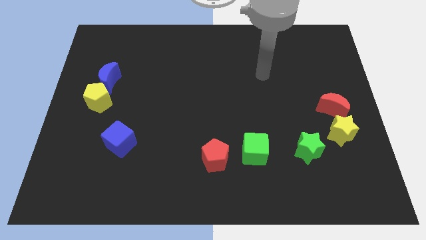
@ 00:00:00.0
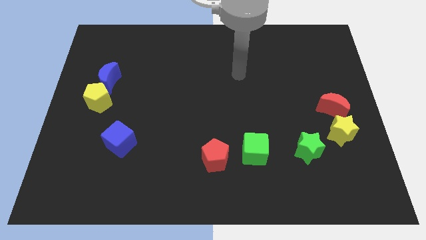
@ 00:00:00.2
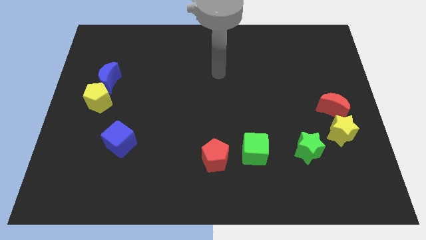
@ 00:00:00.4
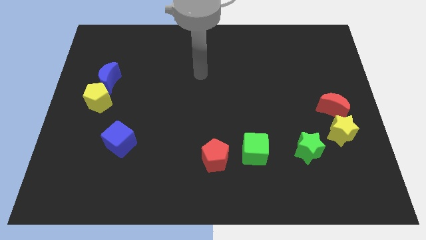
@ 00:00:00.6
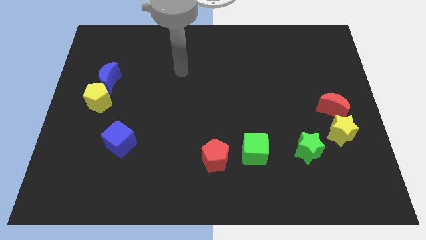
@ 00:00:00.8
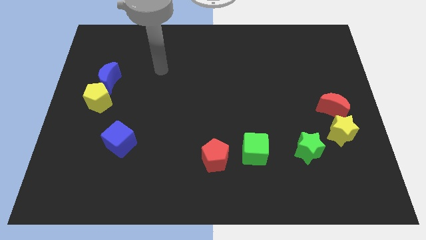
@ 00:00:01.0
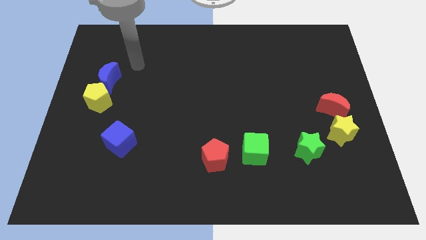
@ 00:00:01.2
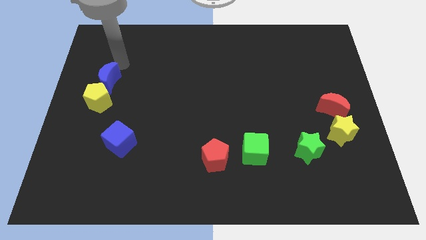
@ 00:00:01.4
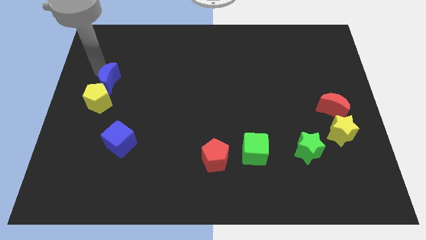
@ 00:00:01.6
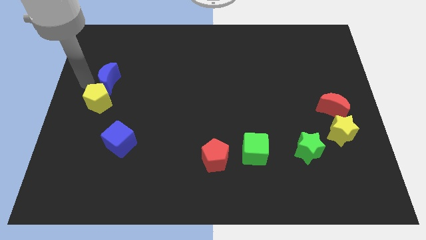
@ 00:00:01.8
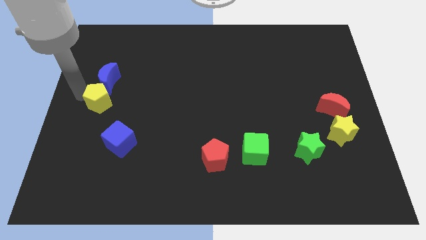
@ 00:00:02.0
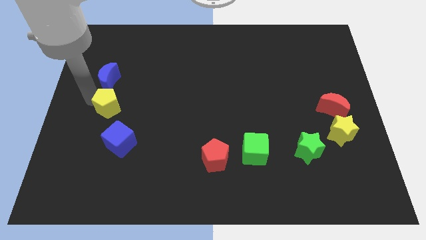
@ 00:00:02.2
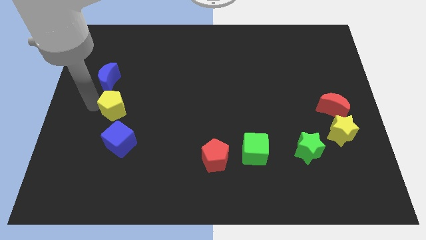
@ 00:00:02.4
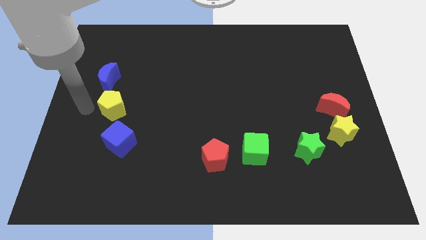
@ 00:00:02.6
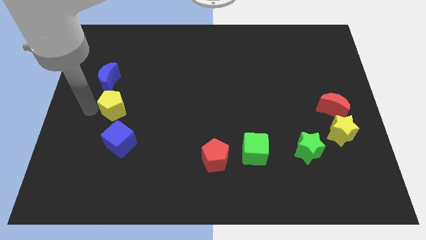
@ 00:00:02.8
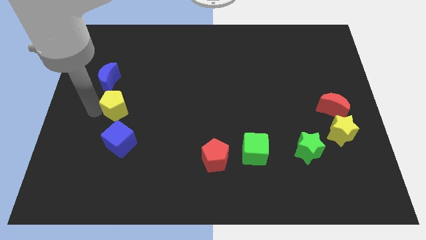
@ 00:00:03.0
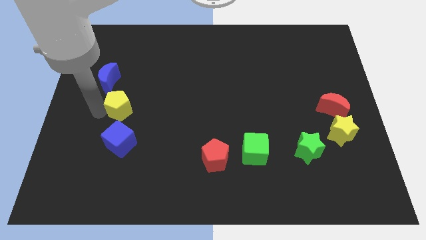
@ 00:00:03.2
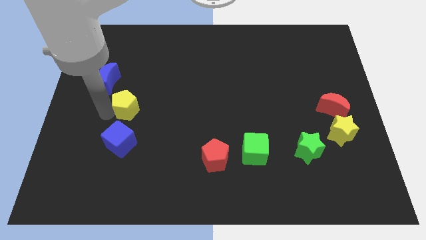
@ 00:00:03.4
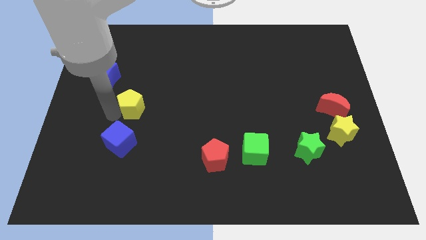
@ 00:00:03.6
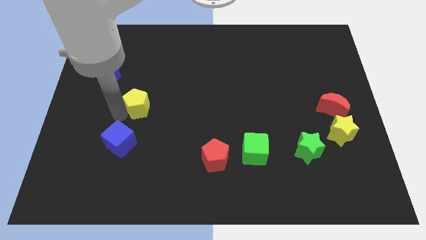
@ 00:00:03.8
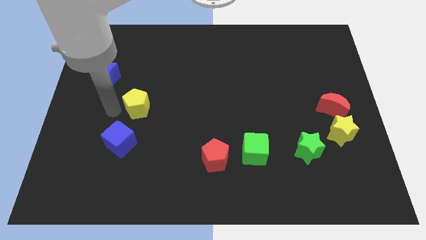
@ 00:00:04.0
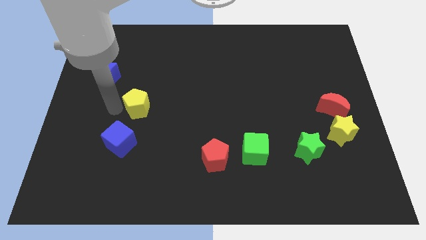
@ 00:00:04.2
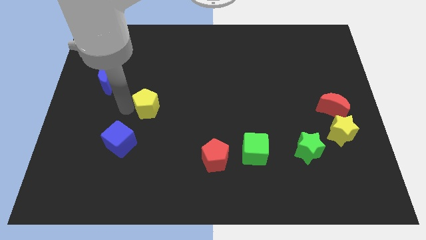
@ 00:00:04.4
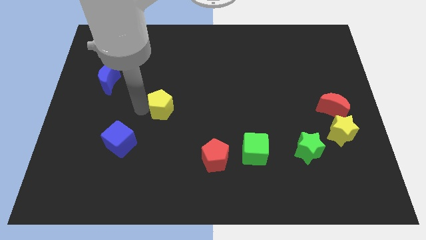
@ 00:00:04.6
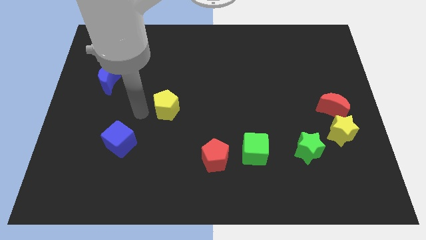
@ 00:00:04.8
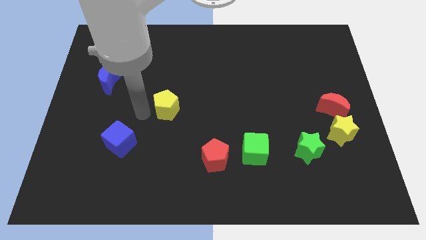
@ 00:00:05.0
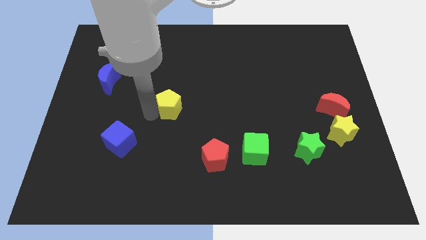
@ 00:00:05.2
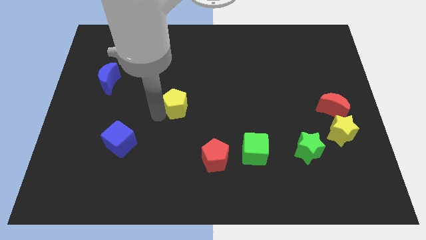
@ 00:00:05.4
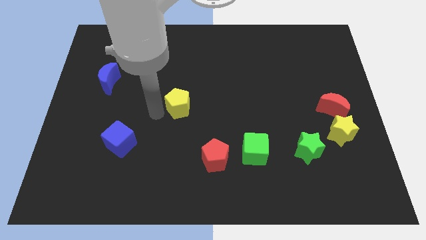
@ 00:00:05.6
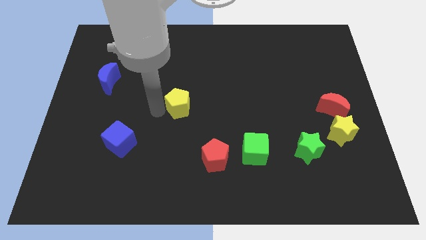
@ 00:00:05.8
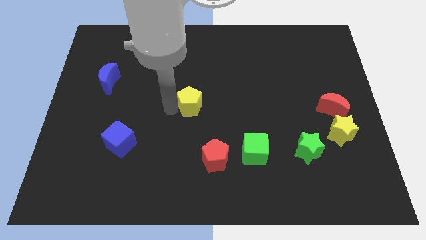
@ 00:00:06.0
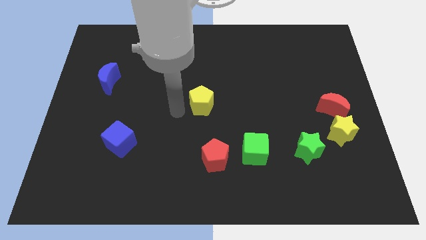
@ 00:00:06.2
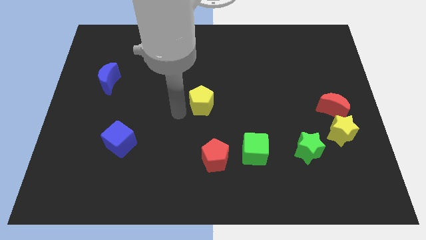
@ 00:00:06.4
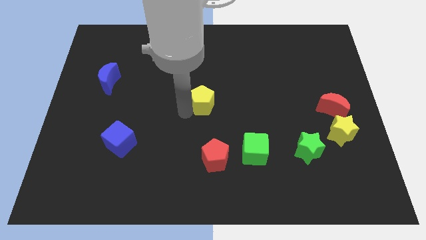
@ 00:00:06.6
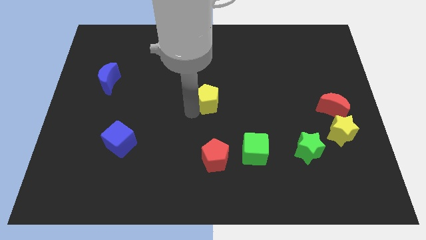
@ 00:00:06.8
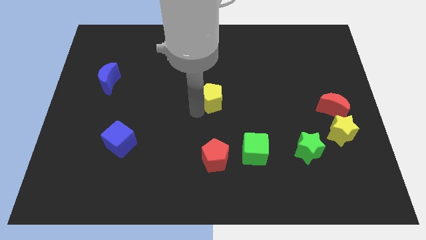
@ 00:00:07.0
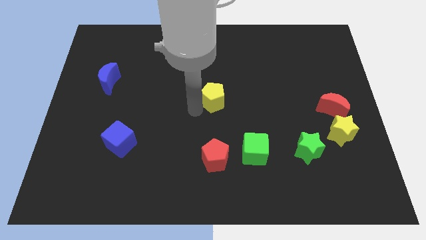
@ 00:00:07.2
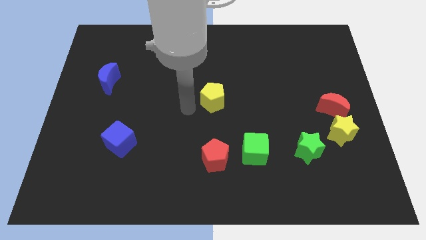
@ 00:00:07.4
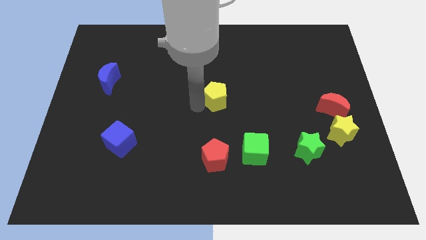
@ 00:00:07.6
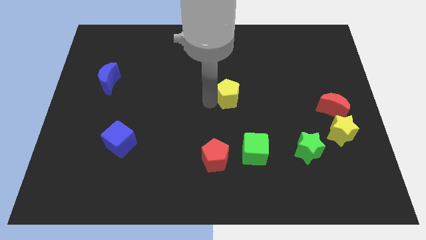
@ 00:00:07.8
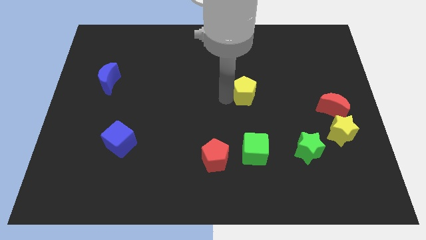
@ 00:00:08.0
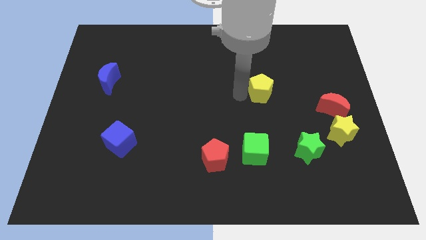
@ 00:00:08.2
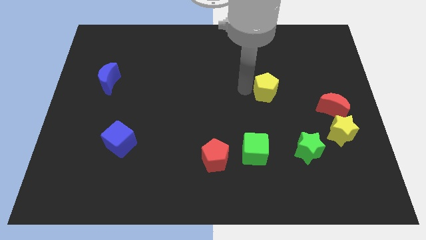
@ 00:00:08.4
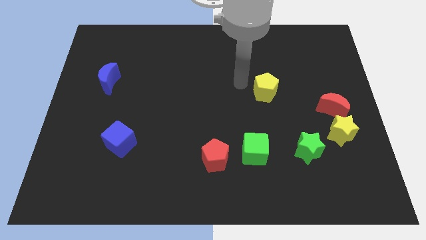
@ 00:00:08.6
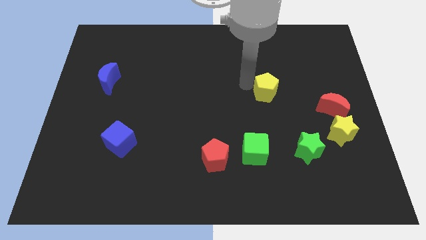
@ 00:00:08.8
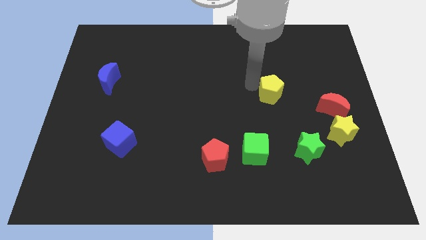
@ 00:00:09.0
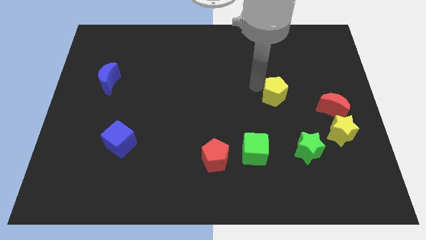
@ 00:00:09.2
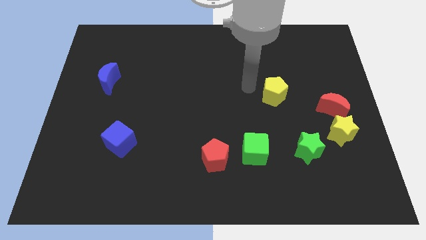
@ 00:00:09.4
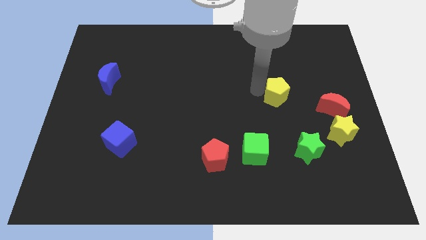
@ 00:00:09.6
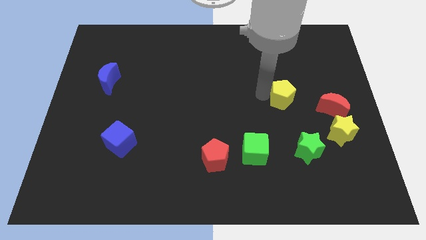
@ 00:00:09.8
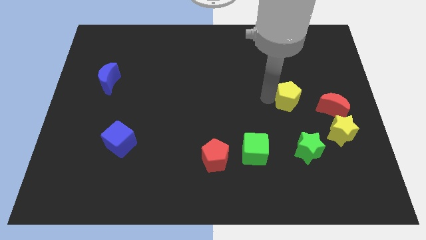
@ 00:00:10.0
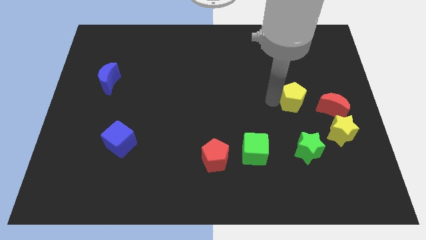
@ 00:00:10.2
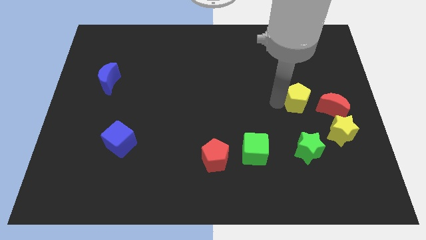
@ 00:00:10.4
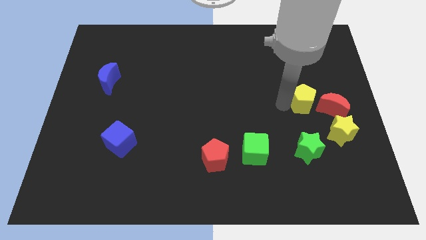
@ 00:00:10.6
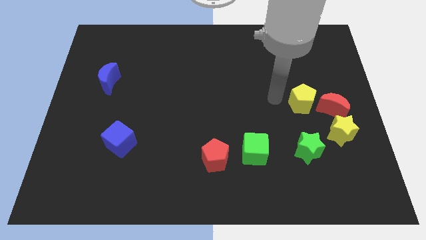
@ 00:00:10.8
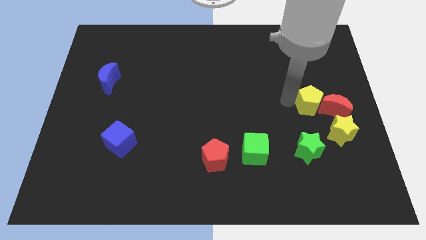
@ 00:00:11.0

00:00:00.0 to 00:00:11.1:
put the yellow pentagon towards the red moon

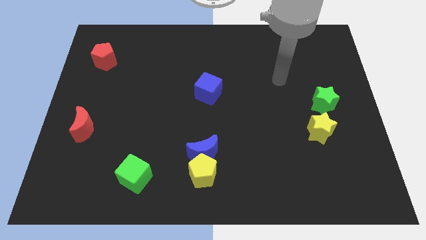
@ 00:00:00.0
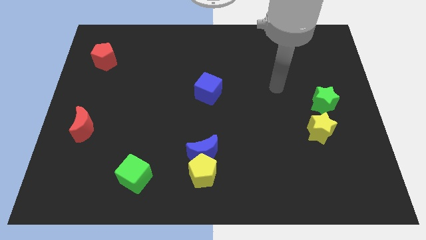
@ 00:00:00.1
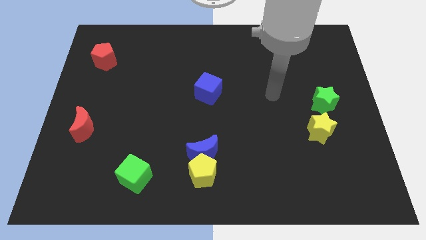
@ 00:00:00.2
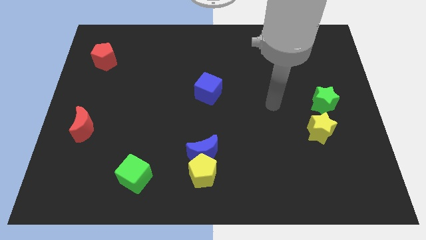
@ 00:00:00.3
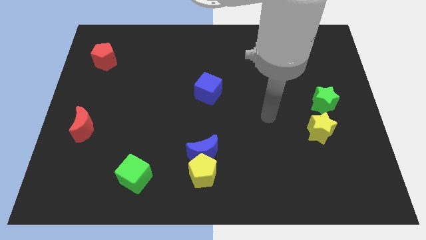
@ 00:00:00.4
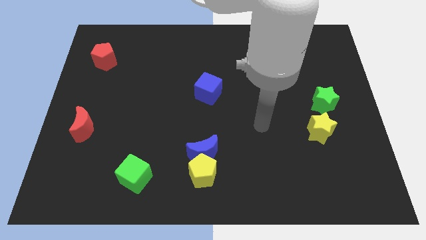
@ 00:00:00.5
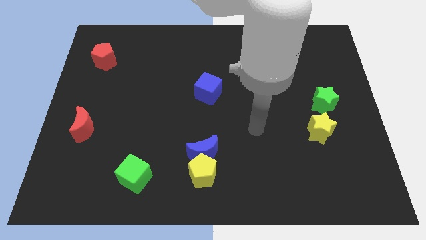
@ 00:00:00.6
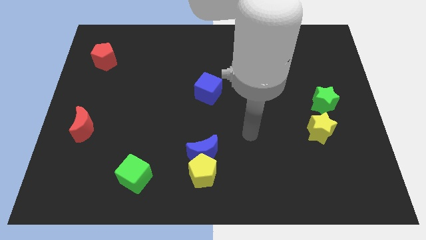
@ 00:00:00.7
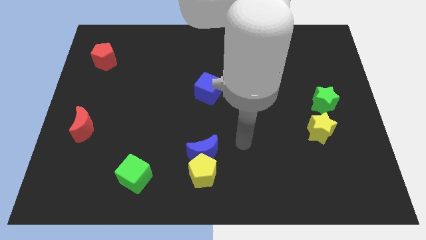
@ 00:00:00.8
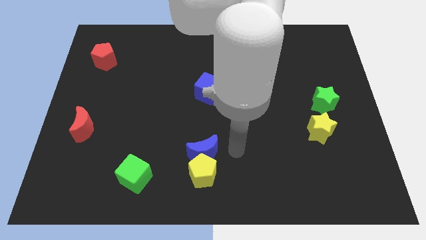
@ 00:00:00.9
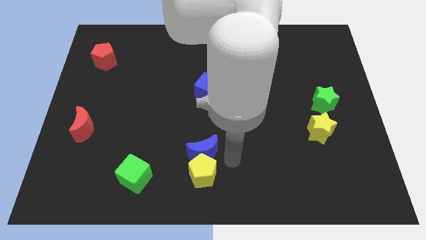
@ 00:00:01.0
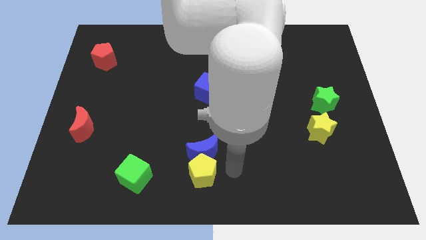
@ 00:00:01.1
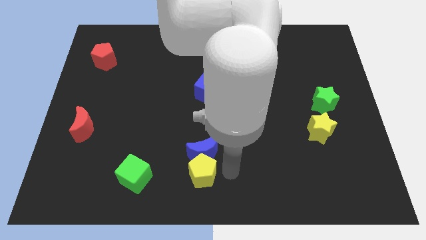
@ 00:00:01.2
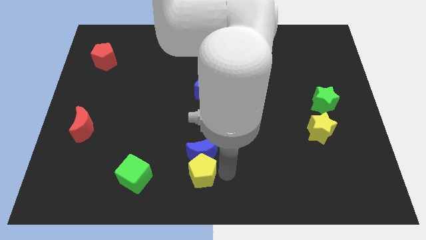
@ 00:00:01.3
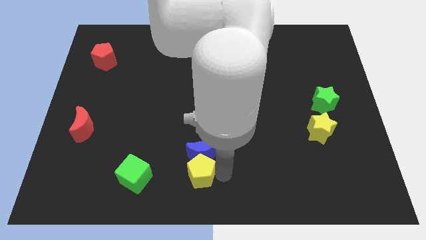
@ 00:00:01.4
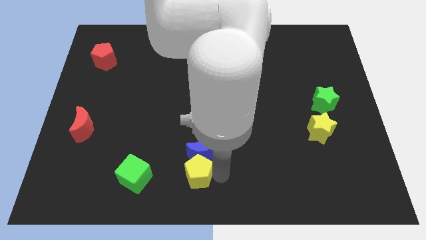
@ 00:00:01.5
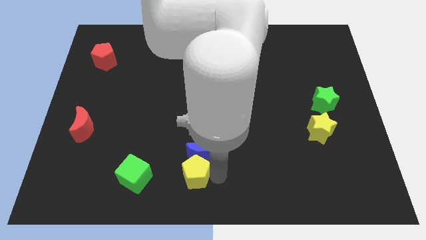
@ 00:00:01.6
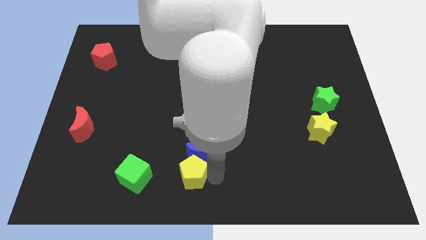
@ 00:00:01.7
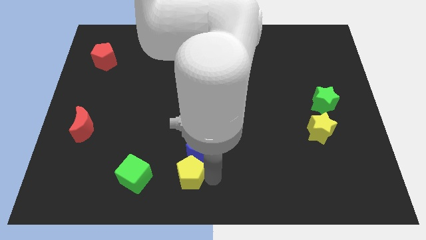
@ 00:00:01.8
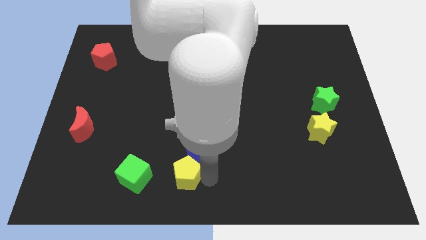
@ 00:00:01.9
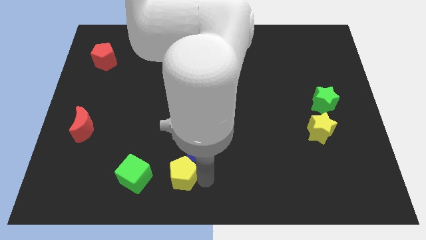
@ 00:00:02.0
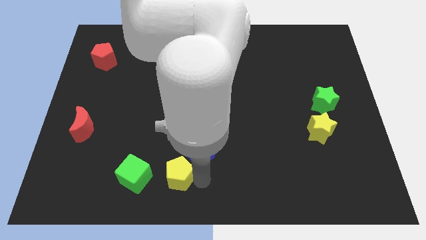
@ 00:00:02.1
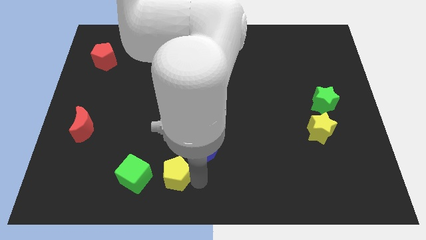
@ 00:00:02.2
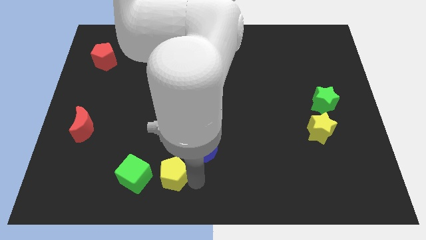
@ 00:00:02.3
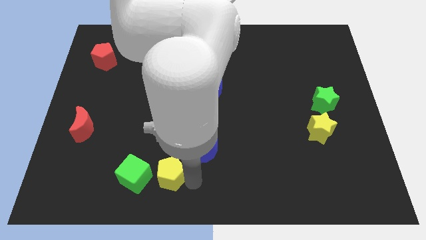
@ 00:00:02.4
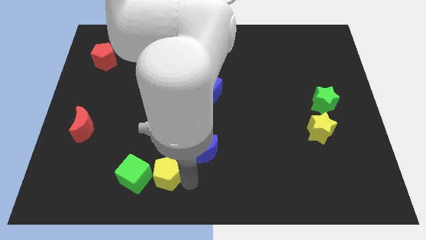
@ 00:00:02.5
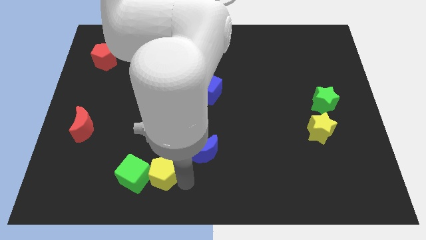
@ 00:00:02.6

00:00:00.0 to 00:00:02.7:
slide the yellow pentagon to the green cube
